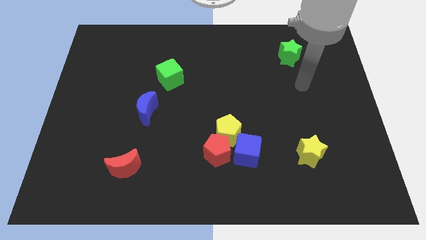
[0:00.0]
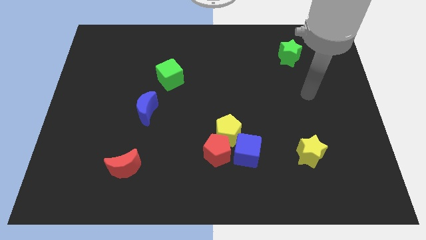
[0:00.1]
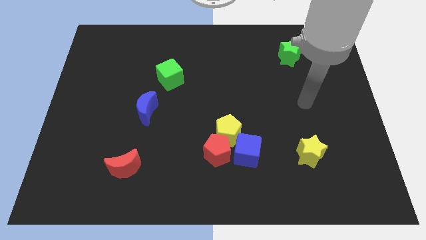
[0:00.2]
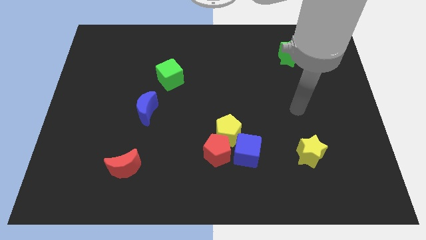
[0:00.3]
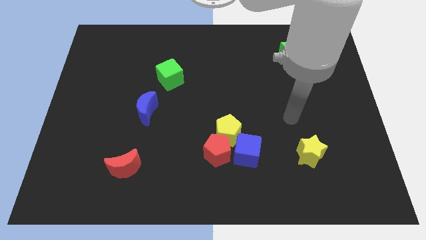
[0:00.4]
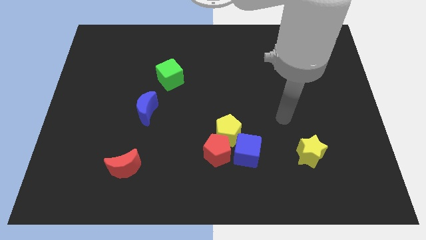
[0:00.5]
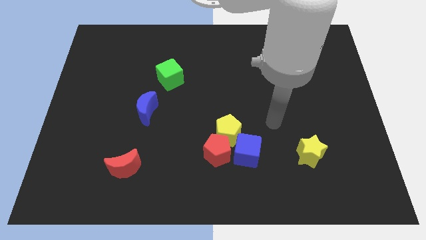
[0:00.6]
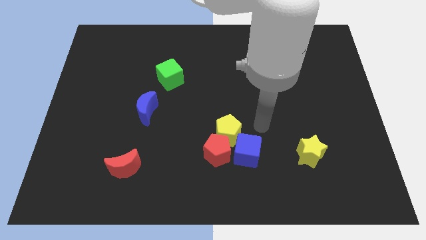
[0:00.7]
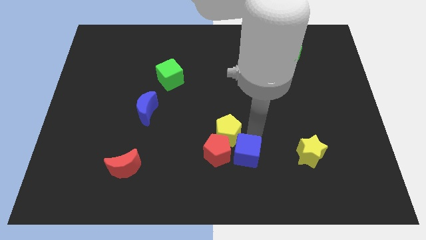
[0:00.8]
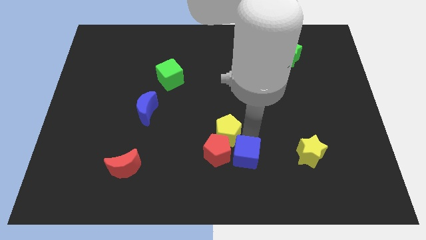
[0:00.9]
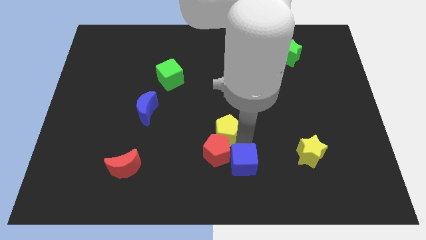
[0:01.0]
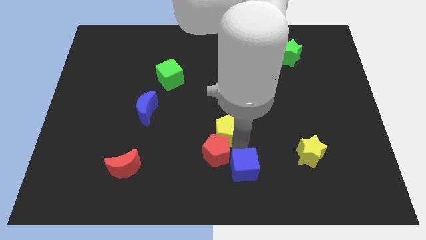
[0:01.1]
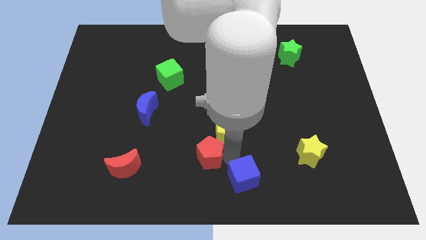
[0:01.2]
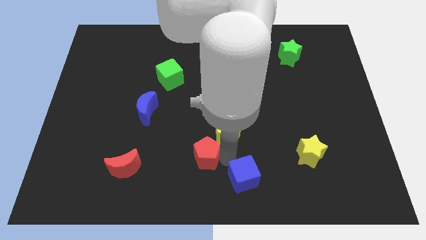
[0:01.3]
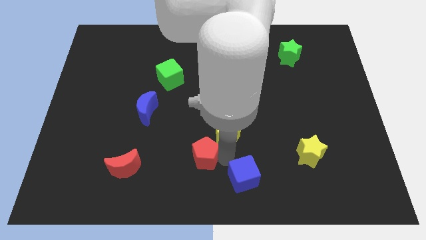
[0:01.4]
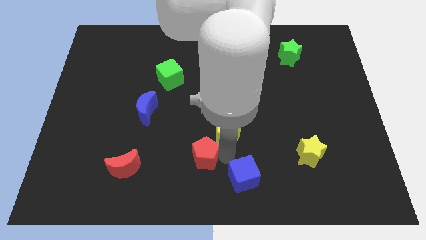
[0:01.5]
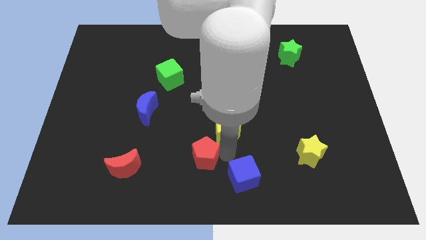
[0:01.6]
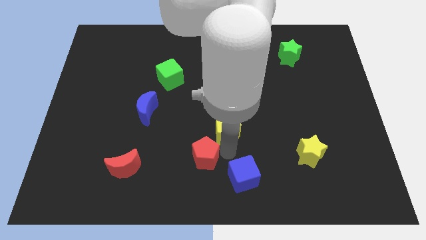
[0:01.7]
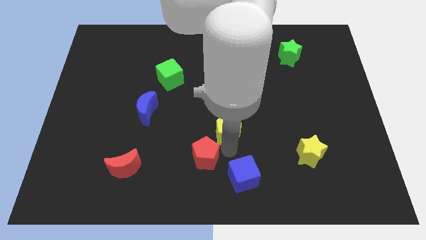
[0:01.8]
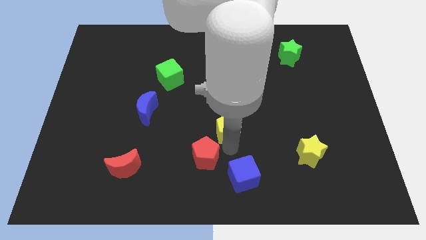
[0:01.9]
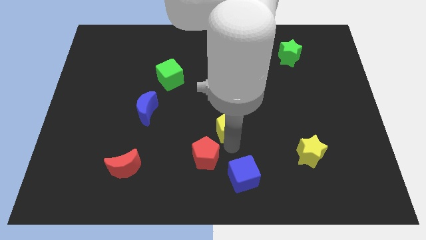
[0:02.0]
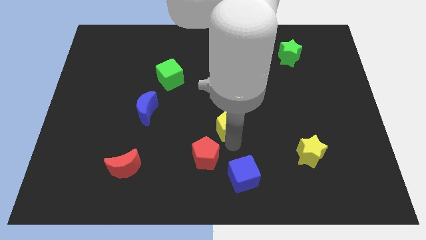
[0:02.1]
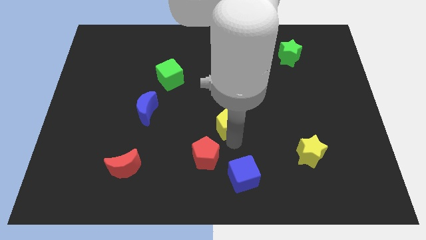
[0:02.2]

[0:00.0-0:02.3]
move the yellow pentagon away from the red pentagon and blue cube

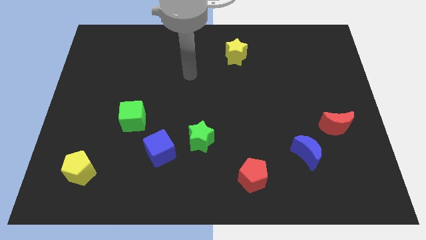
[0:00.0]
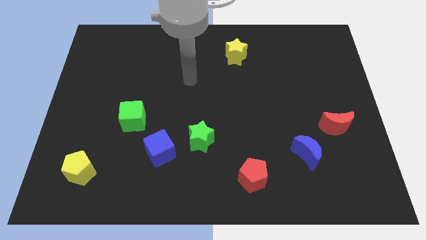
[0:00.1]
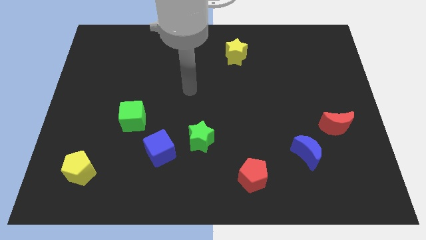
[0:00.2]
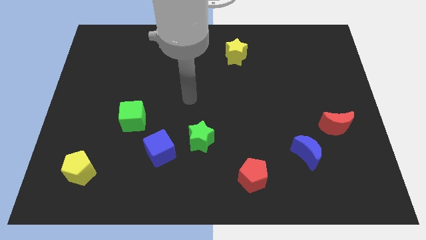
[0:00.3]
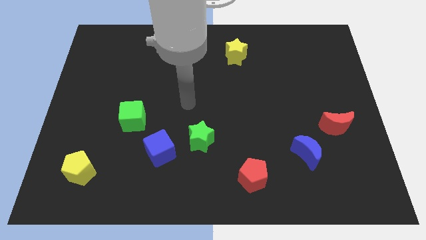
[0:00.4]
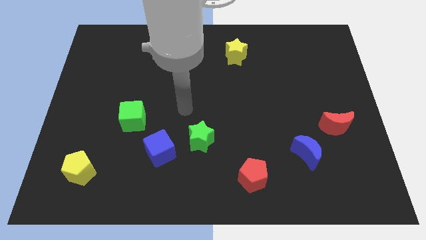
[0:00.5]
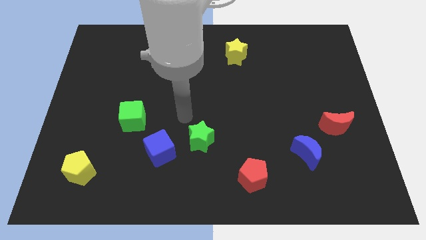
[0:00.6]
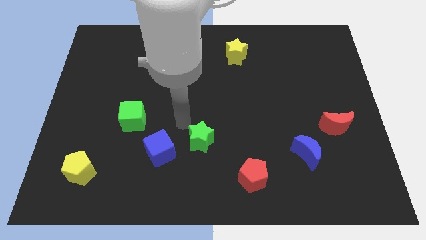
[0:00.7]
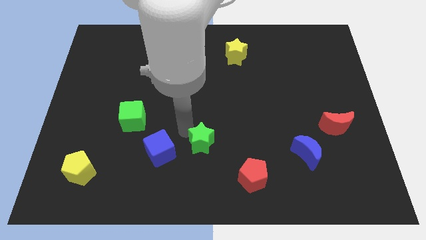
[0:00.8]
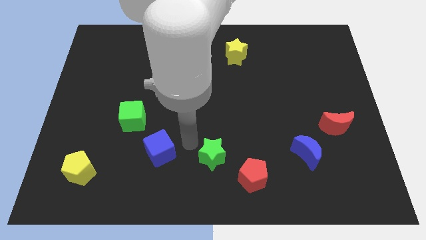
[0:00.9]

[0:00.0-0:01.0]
separate the blue cube from the green star

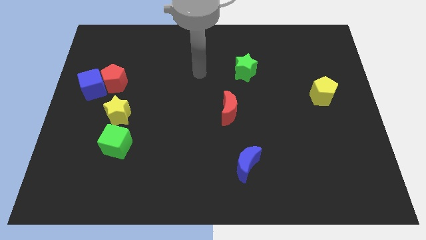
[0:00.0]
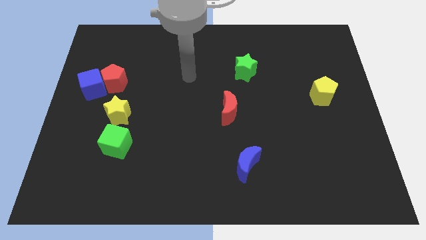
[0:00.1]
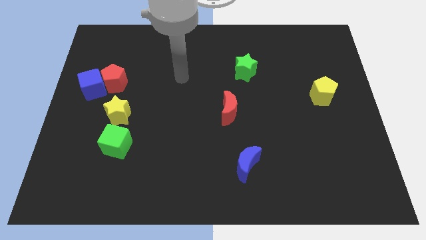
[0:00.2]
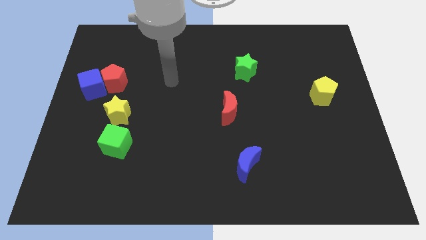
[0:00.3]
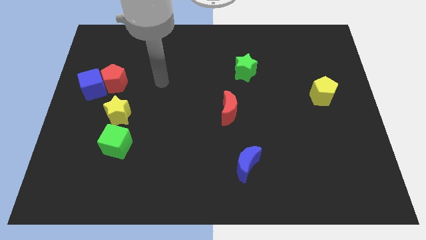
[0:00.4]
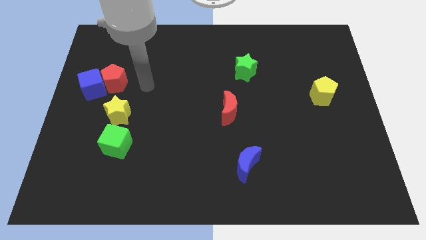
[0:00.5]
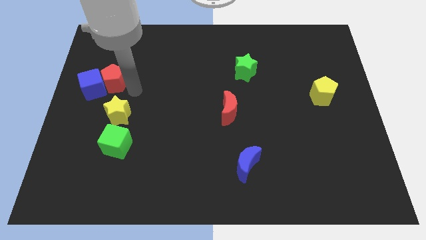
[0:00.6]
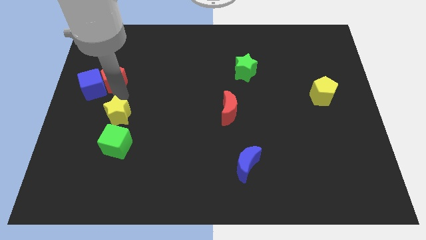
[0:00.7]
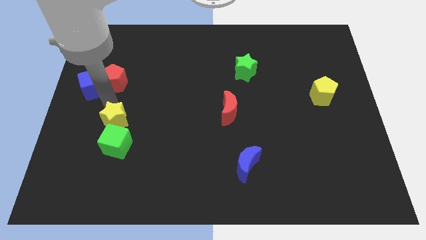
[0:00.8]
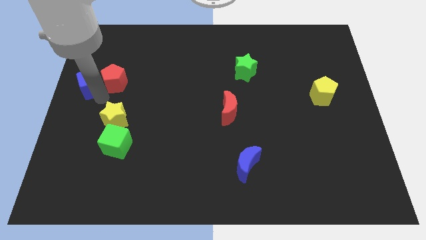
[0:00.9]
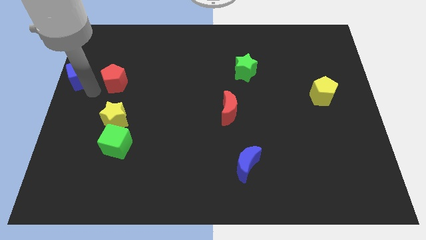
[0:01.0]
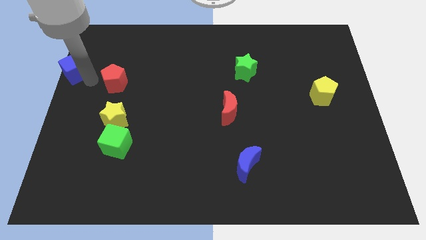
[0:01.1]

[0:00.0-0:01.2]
move the red pentagon away from the blue cube

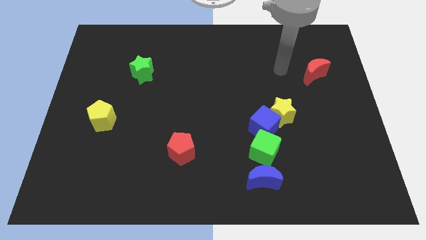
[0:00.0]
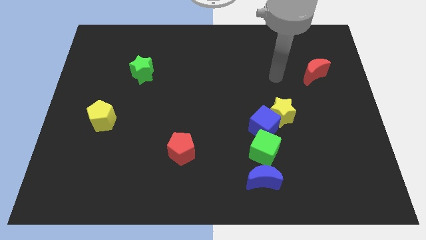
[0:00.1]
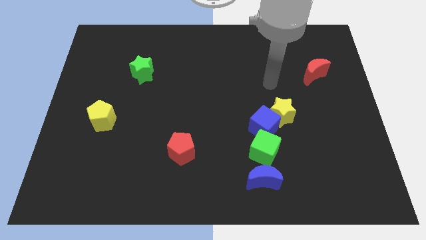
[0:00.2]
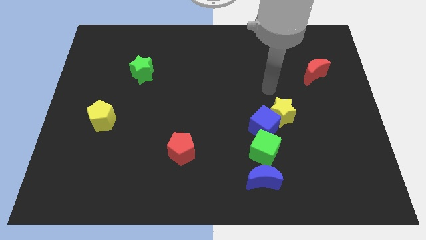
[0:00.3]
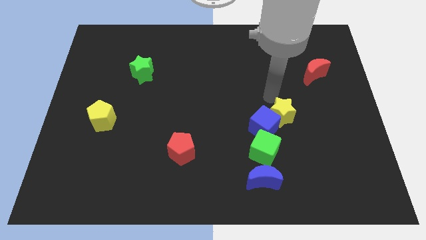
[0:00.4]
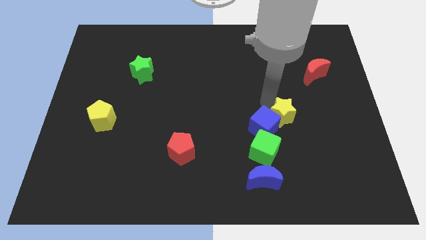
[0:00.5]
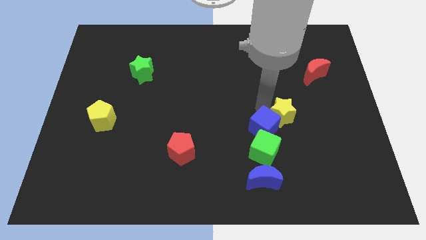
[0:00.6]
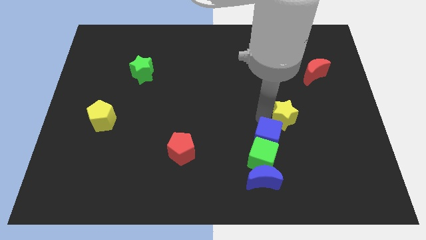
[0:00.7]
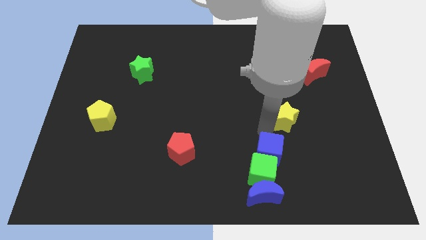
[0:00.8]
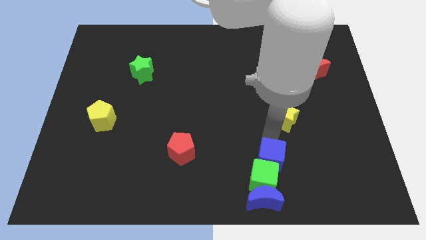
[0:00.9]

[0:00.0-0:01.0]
separate the yellow star from the blue cube

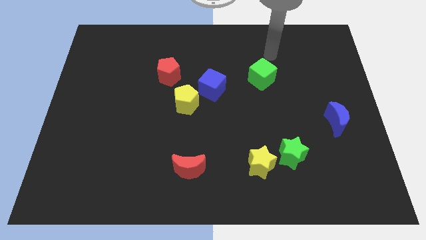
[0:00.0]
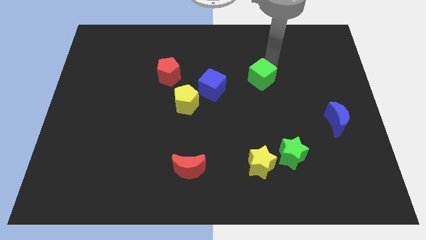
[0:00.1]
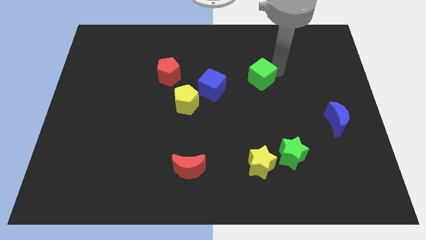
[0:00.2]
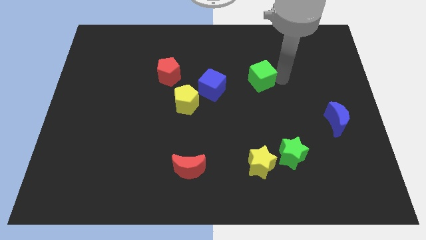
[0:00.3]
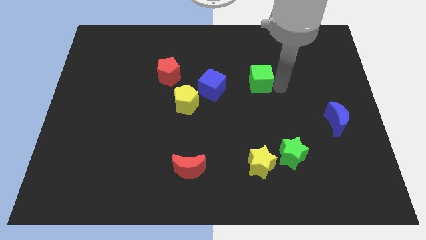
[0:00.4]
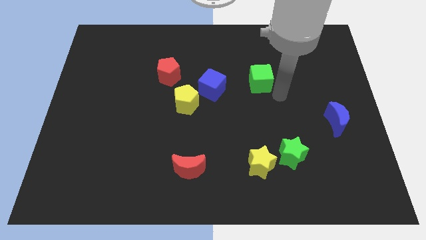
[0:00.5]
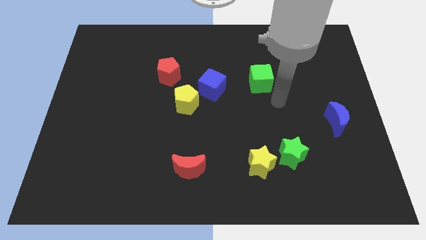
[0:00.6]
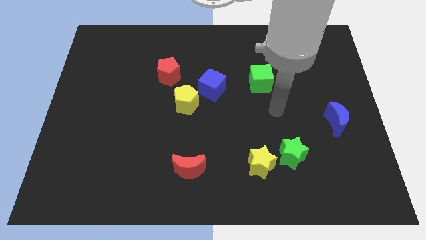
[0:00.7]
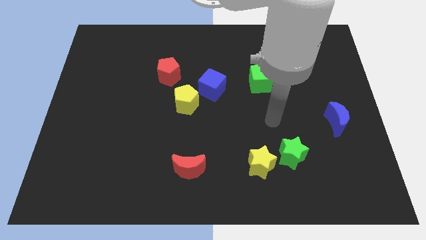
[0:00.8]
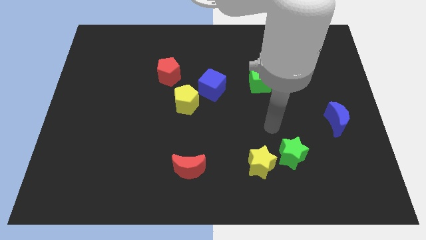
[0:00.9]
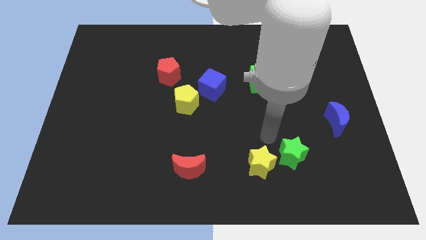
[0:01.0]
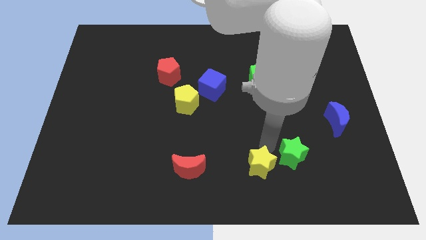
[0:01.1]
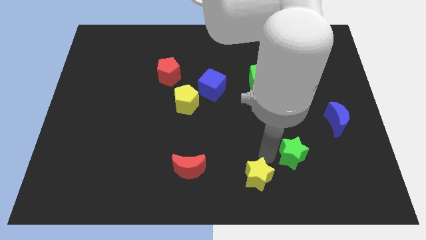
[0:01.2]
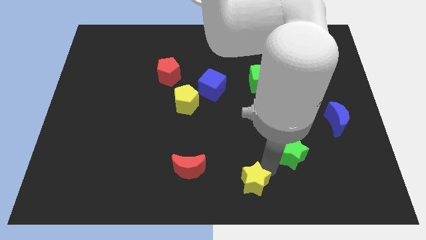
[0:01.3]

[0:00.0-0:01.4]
separate the green star from the yellow star

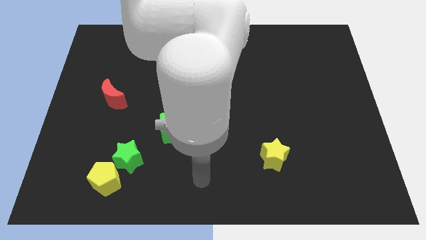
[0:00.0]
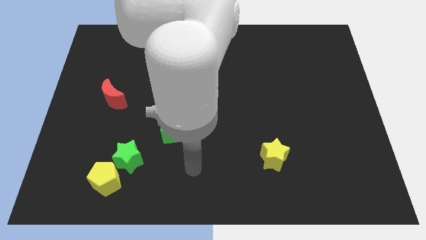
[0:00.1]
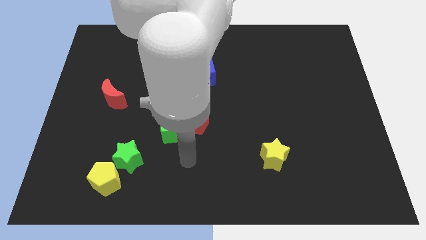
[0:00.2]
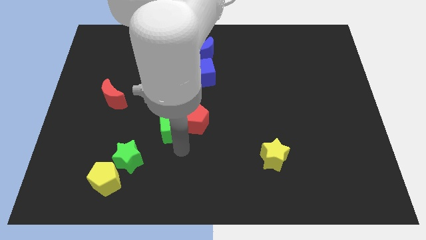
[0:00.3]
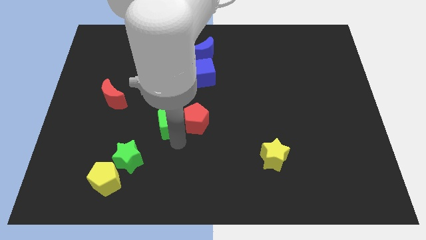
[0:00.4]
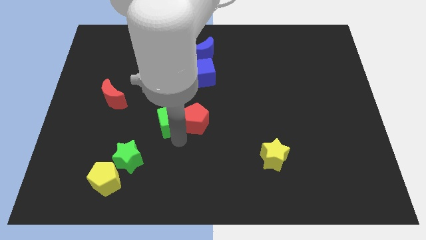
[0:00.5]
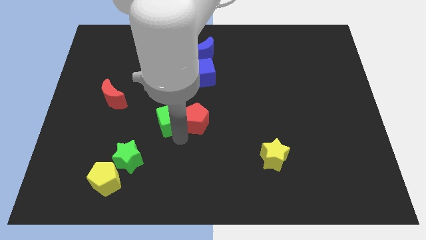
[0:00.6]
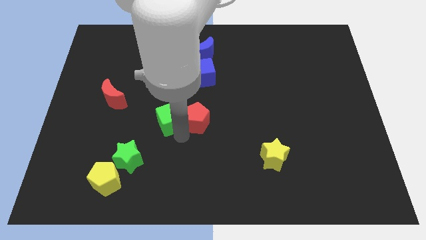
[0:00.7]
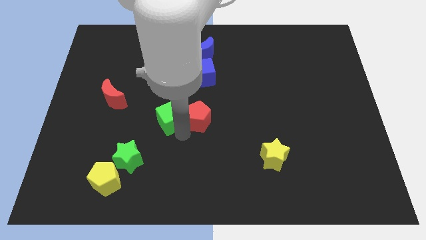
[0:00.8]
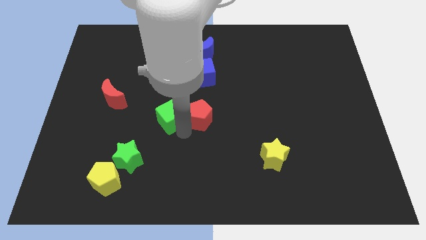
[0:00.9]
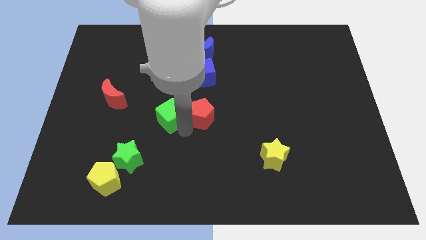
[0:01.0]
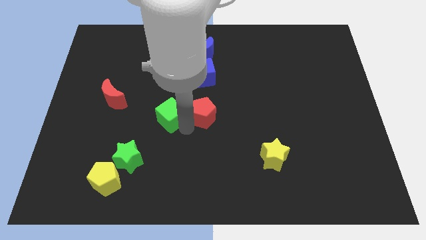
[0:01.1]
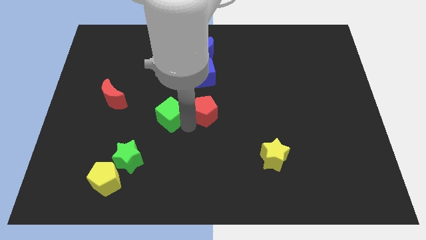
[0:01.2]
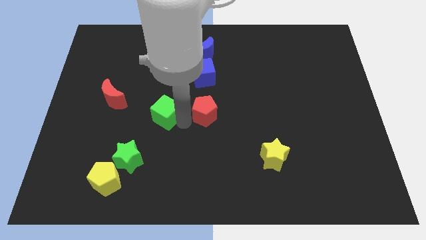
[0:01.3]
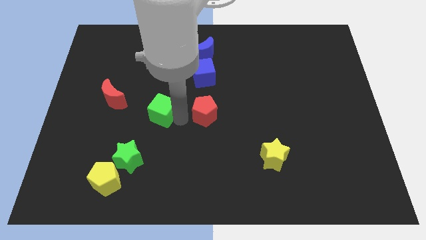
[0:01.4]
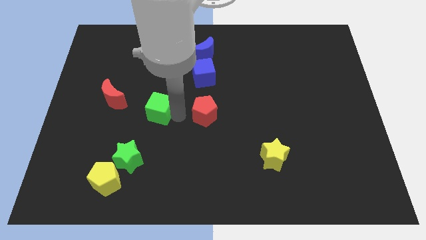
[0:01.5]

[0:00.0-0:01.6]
separate the red pentagon from the green cube

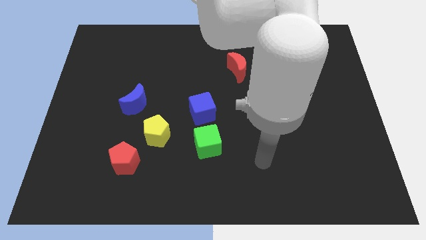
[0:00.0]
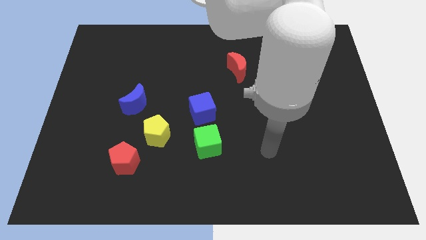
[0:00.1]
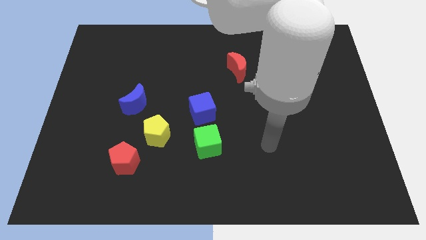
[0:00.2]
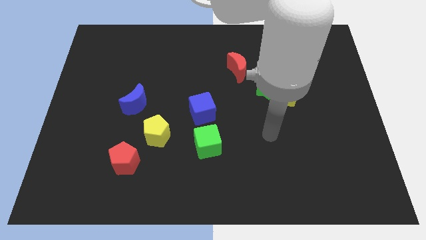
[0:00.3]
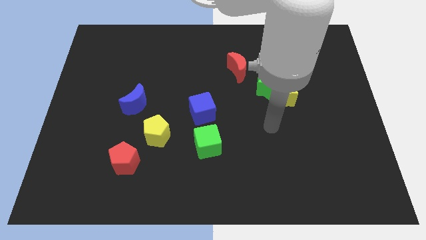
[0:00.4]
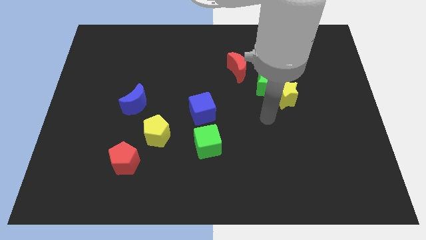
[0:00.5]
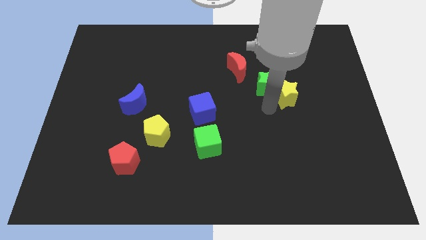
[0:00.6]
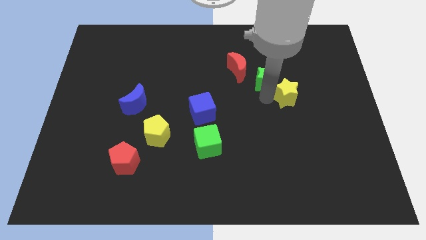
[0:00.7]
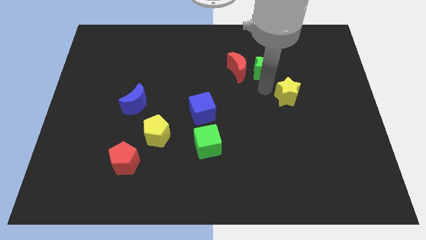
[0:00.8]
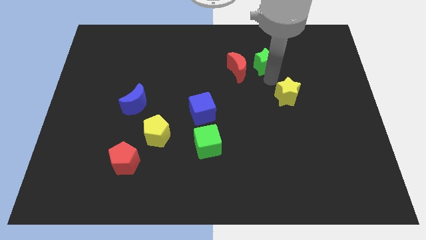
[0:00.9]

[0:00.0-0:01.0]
pull the yellow star apart from the green star
